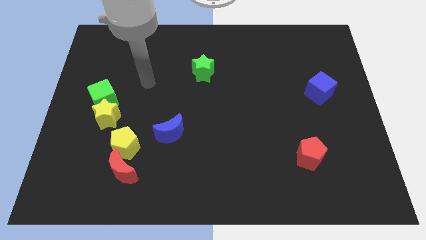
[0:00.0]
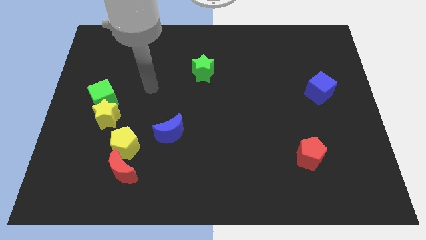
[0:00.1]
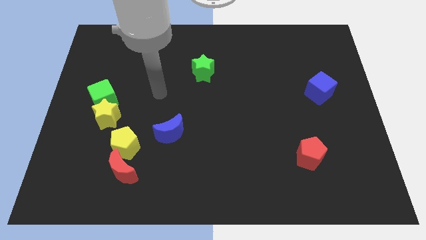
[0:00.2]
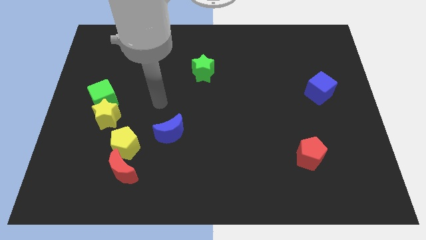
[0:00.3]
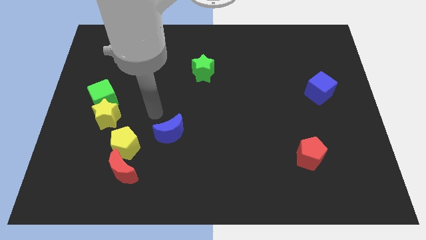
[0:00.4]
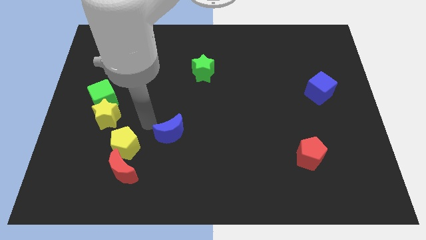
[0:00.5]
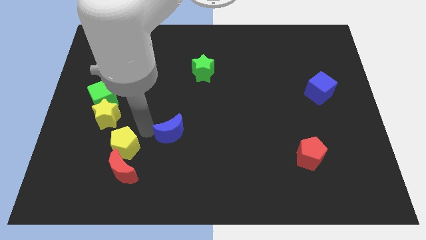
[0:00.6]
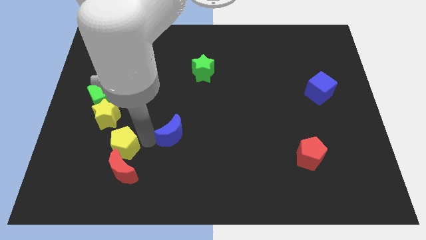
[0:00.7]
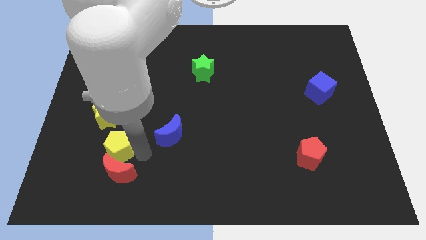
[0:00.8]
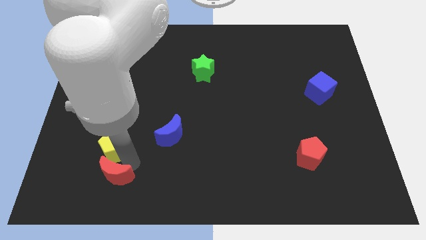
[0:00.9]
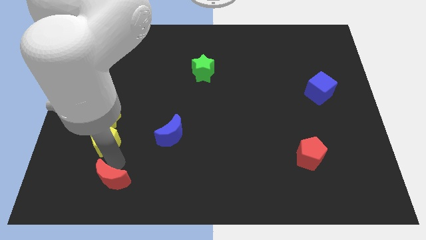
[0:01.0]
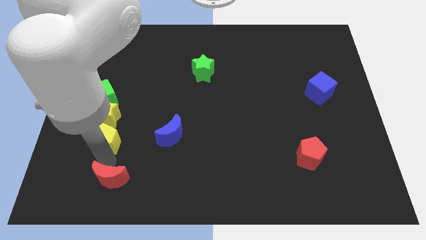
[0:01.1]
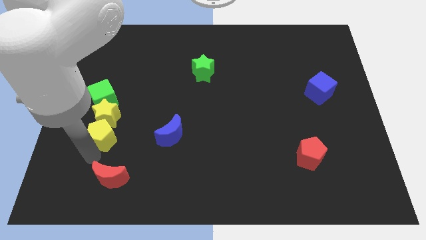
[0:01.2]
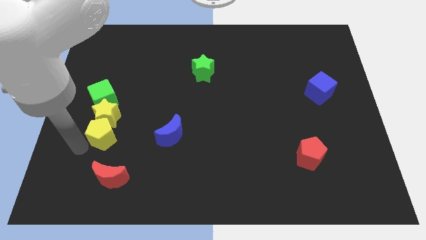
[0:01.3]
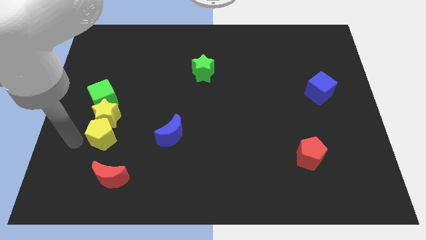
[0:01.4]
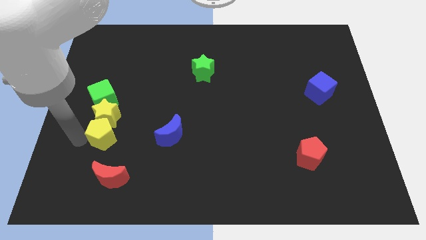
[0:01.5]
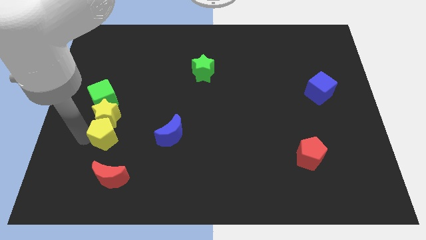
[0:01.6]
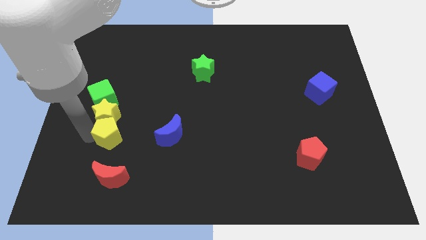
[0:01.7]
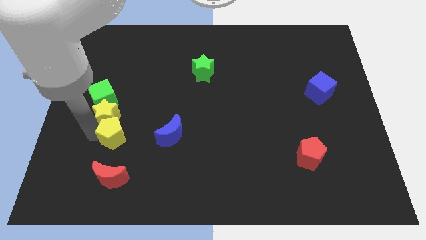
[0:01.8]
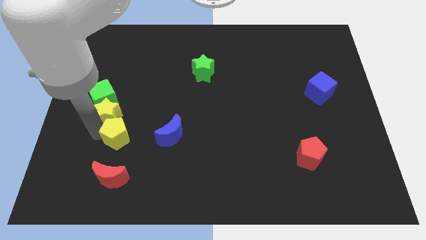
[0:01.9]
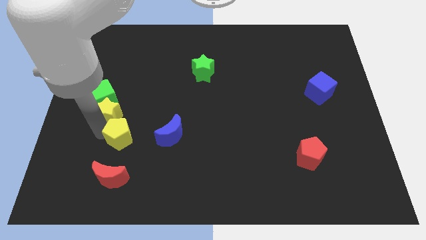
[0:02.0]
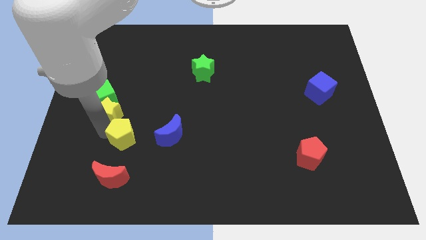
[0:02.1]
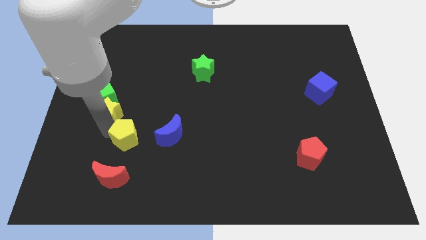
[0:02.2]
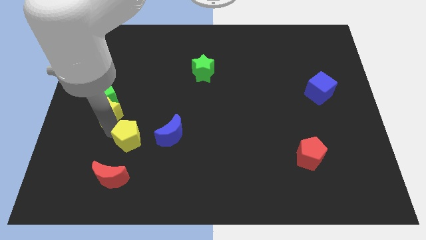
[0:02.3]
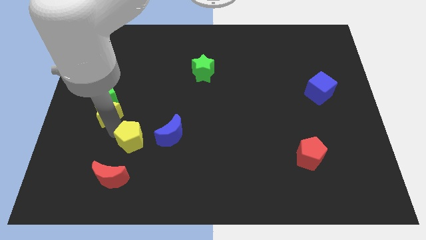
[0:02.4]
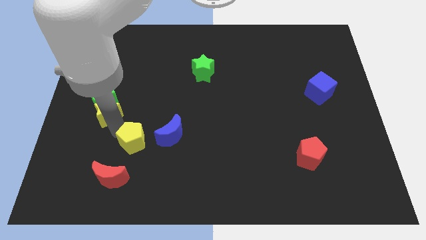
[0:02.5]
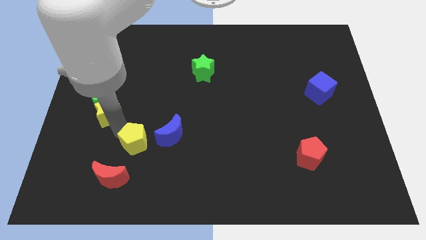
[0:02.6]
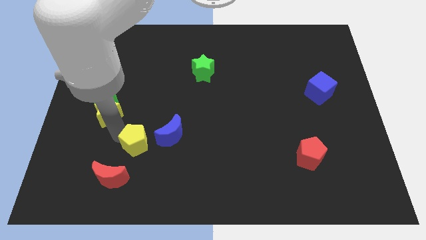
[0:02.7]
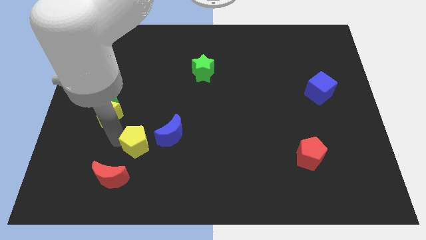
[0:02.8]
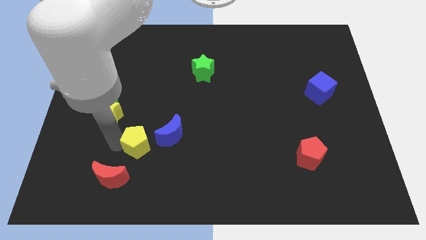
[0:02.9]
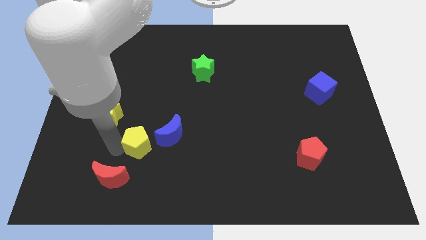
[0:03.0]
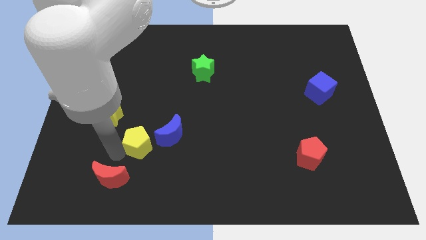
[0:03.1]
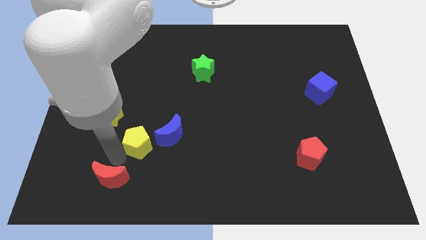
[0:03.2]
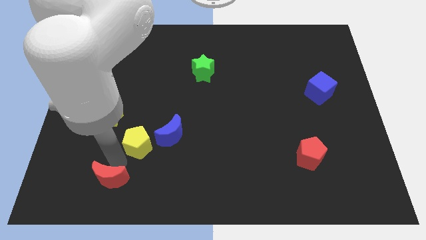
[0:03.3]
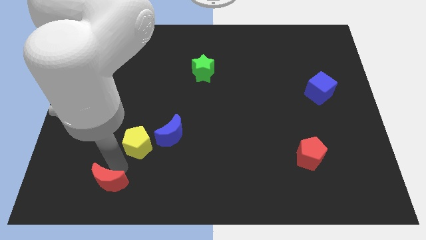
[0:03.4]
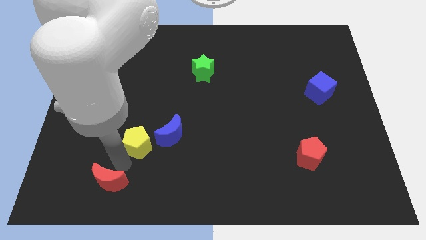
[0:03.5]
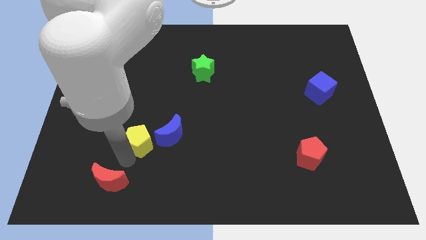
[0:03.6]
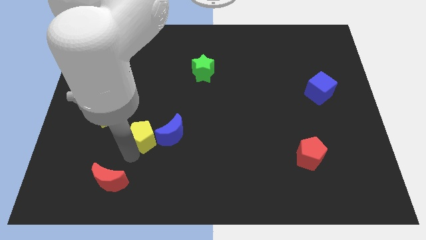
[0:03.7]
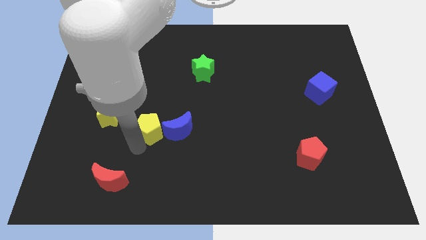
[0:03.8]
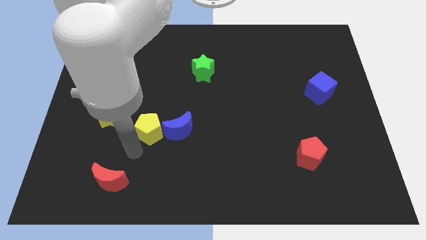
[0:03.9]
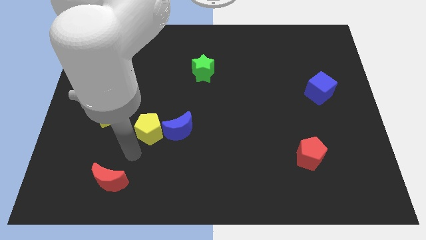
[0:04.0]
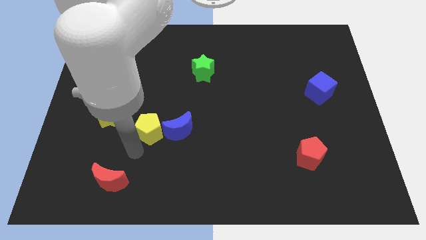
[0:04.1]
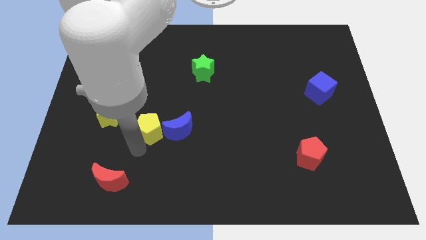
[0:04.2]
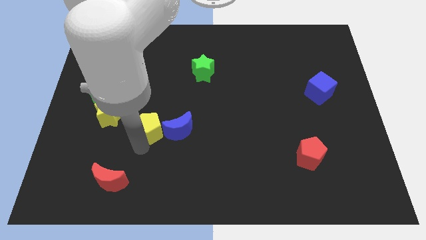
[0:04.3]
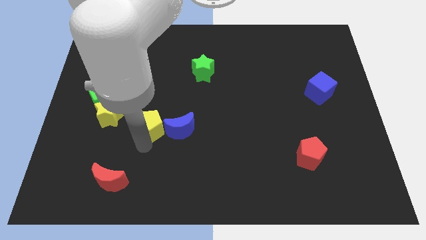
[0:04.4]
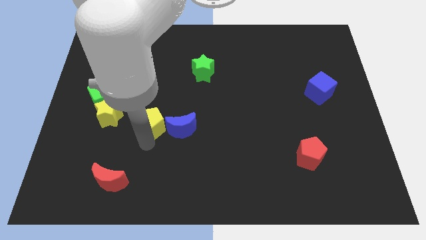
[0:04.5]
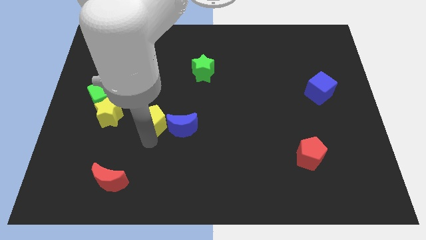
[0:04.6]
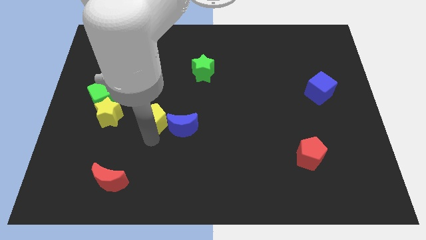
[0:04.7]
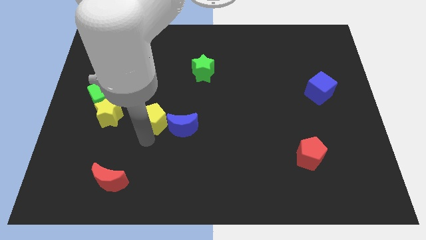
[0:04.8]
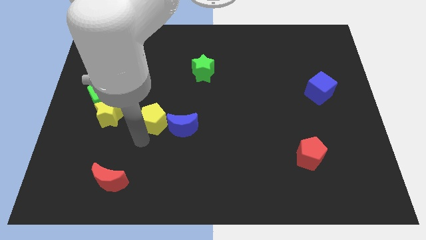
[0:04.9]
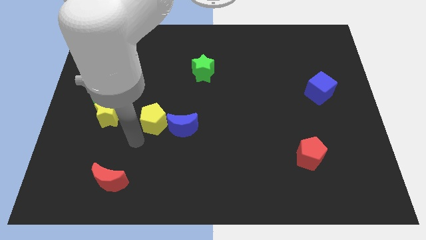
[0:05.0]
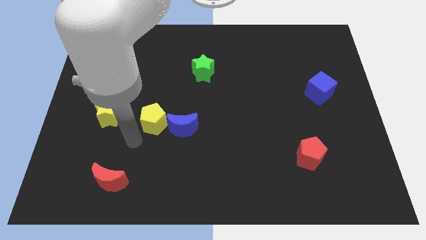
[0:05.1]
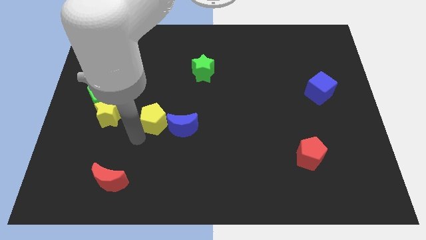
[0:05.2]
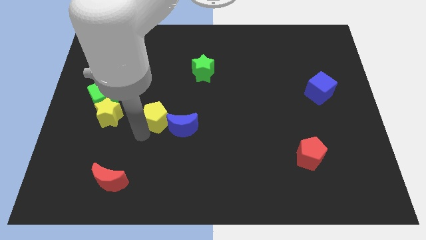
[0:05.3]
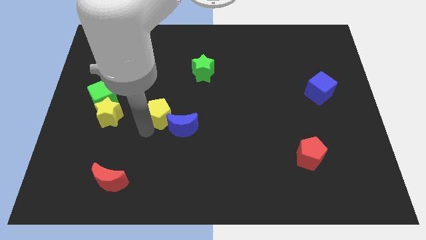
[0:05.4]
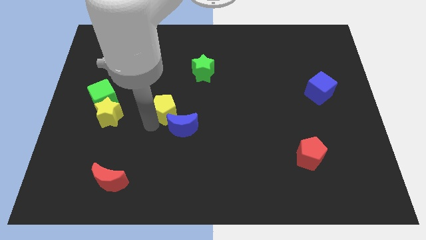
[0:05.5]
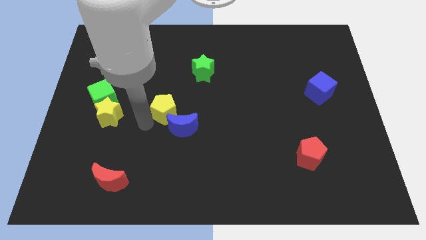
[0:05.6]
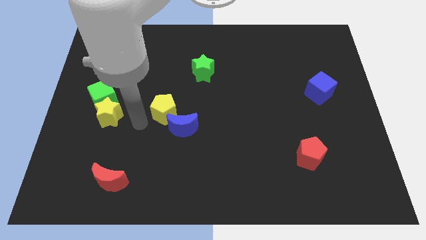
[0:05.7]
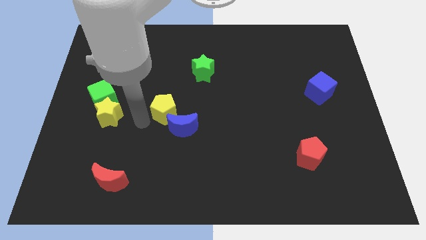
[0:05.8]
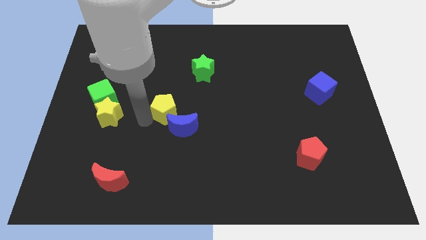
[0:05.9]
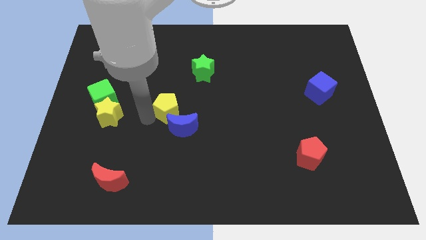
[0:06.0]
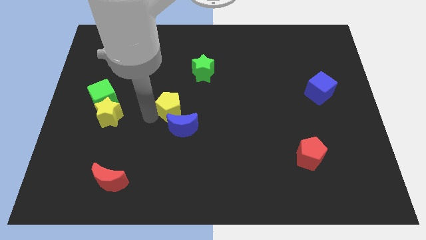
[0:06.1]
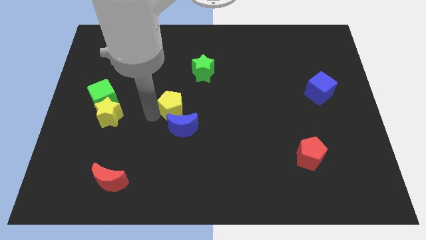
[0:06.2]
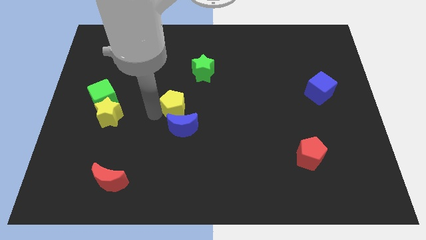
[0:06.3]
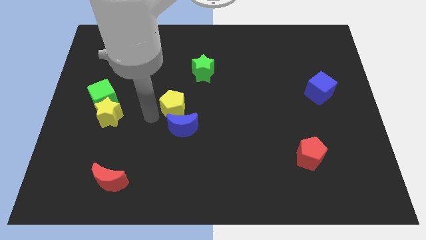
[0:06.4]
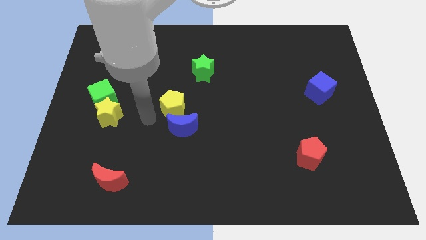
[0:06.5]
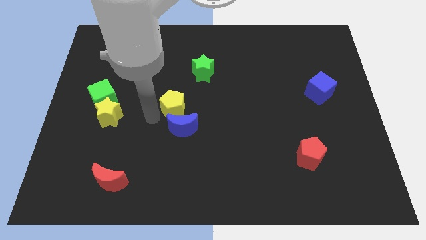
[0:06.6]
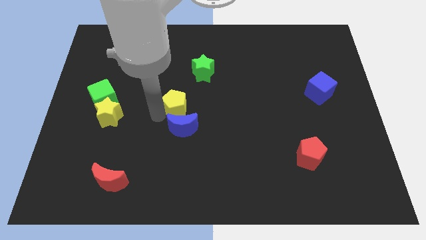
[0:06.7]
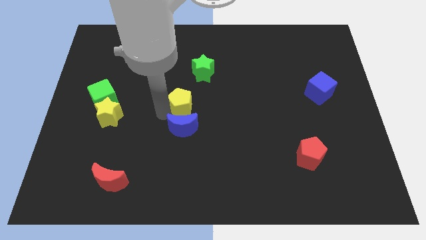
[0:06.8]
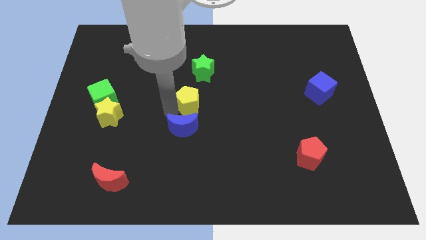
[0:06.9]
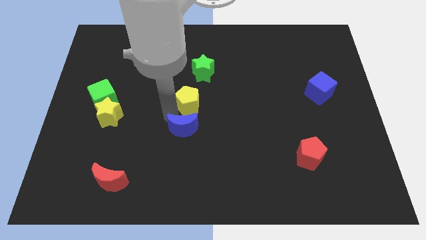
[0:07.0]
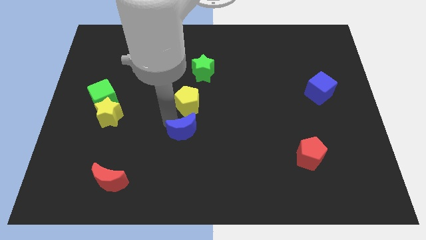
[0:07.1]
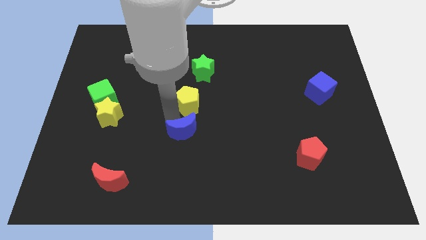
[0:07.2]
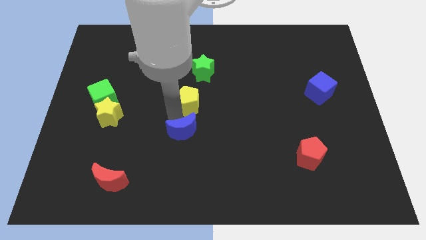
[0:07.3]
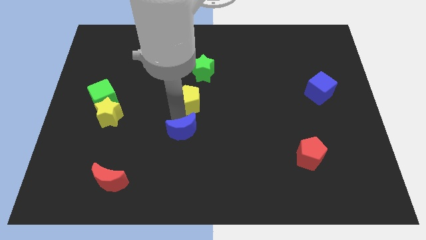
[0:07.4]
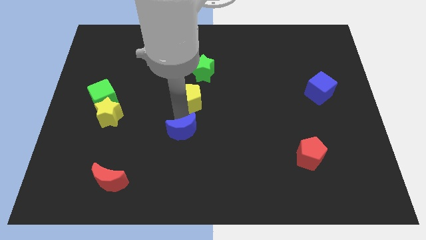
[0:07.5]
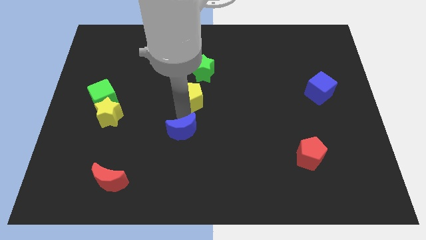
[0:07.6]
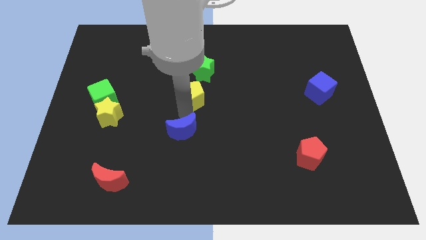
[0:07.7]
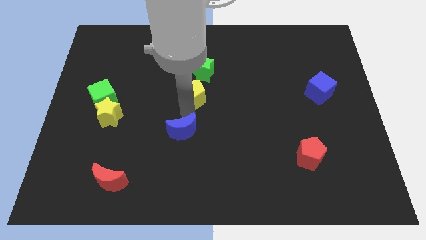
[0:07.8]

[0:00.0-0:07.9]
move the yellow pentagon upwards and right

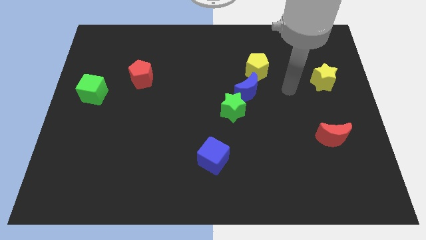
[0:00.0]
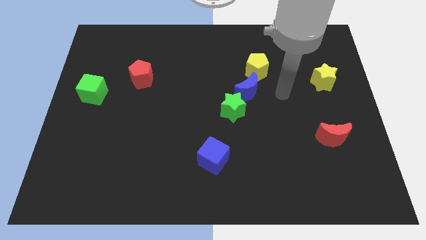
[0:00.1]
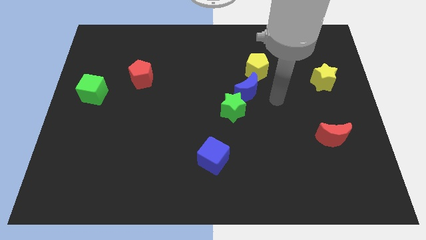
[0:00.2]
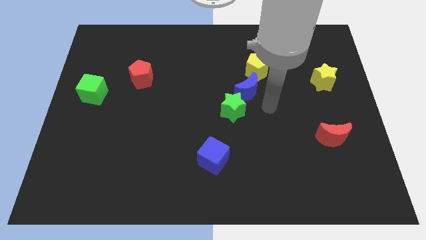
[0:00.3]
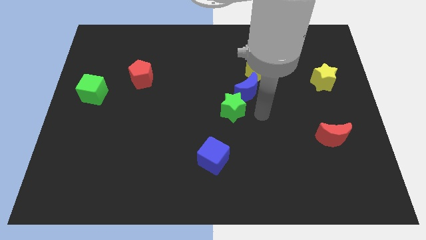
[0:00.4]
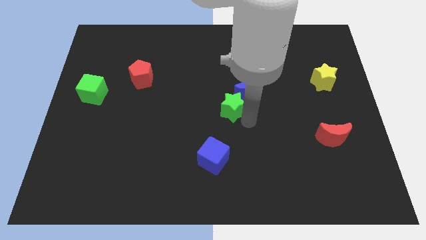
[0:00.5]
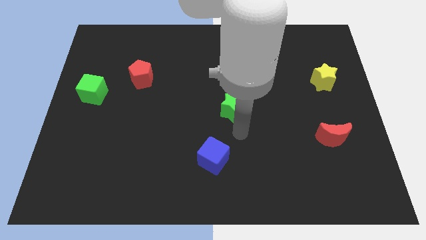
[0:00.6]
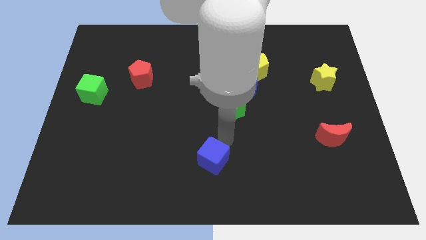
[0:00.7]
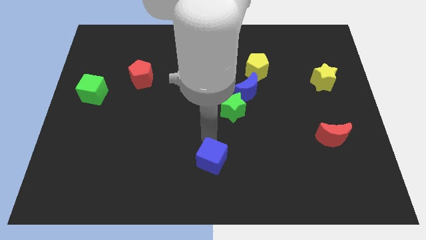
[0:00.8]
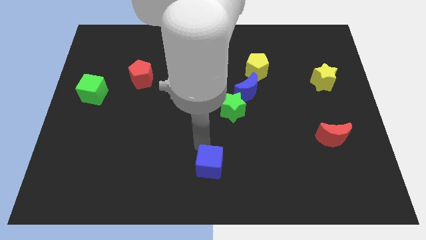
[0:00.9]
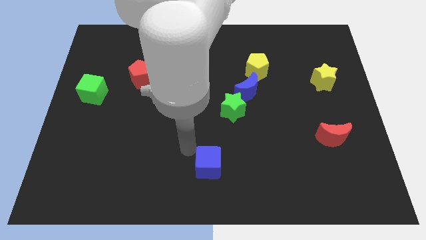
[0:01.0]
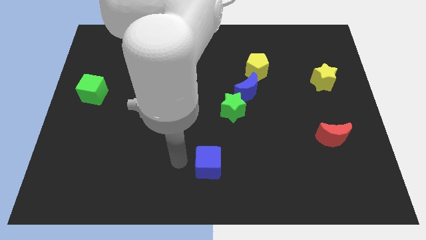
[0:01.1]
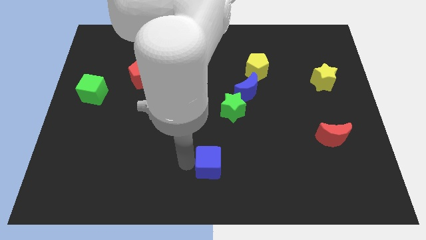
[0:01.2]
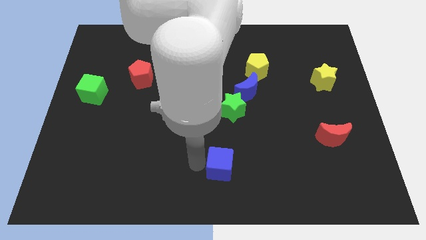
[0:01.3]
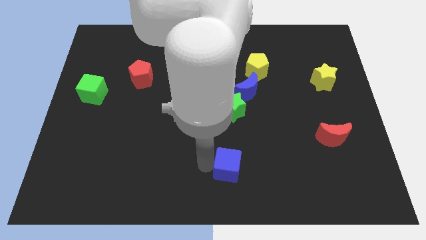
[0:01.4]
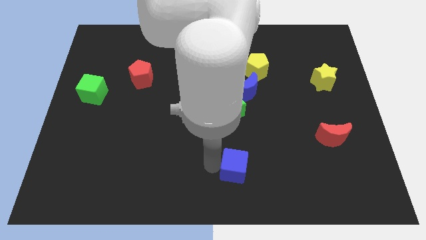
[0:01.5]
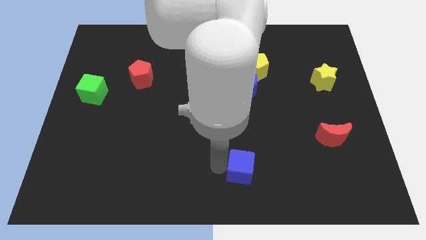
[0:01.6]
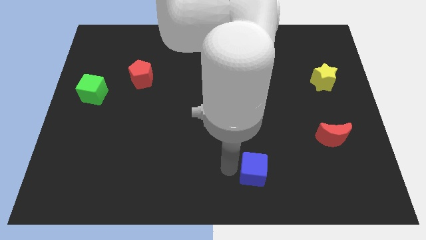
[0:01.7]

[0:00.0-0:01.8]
slide the blue cube slightly to the right
